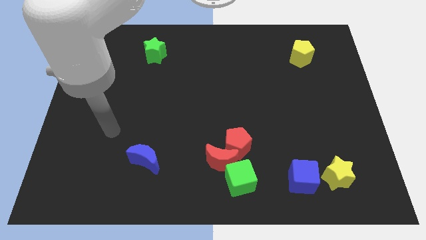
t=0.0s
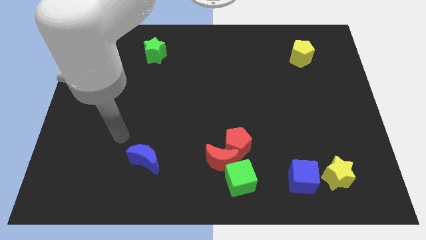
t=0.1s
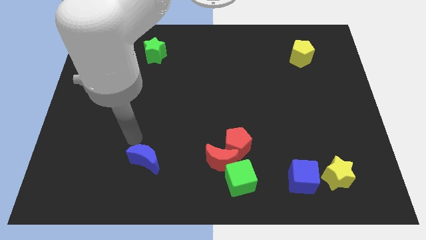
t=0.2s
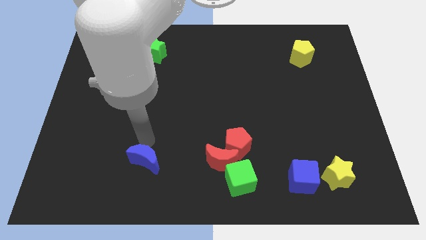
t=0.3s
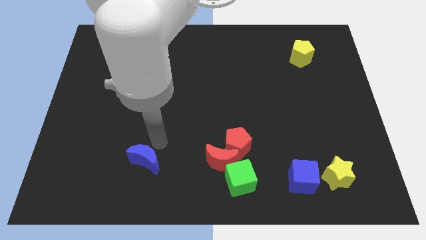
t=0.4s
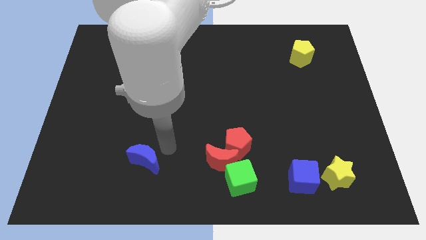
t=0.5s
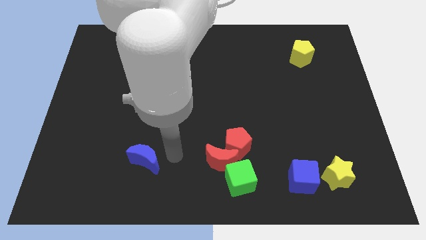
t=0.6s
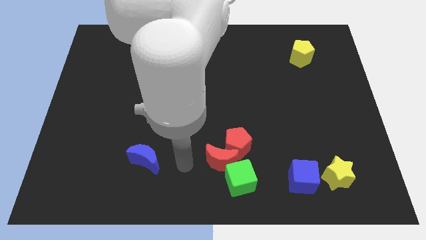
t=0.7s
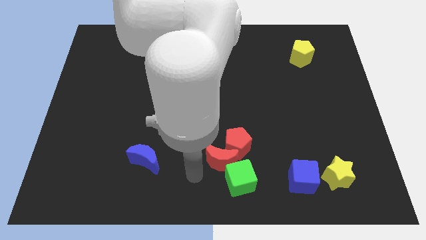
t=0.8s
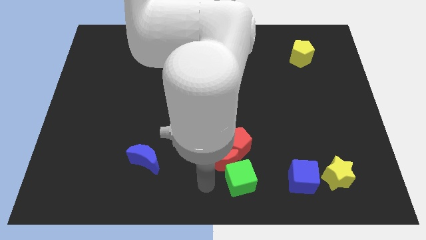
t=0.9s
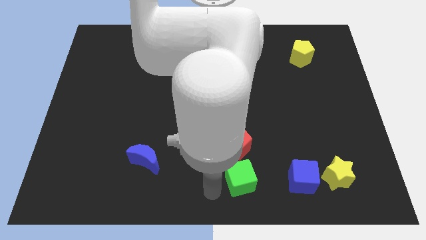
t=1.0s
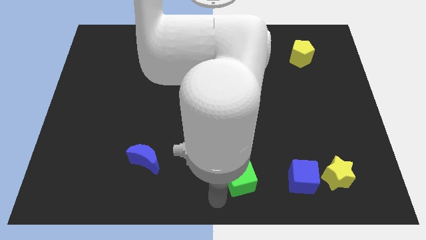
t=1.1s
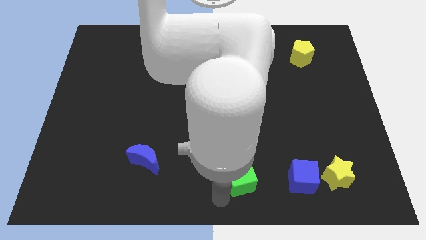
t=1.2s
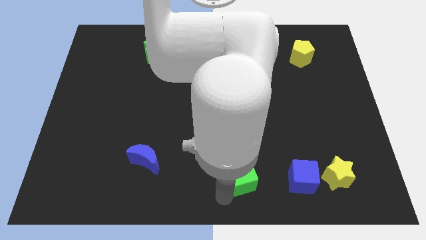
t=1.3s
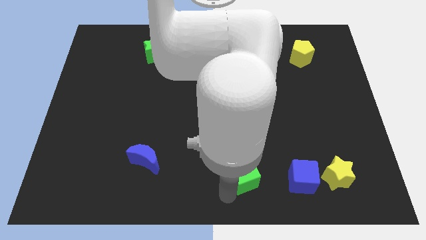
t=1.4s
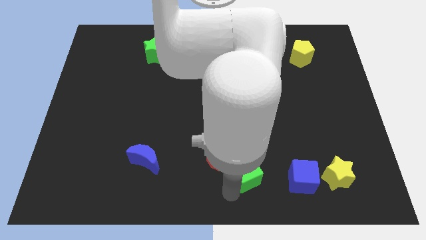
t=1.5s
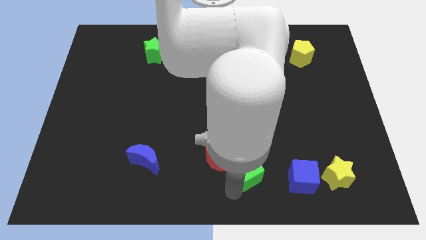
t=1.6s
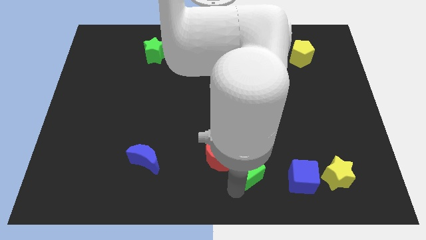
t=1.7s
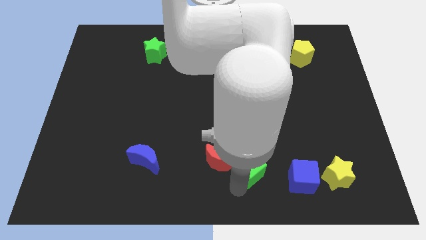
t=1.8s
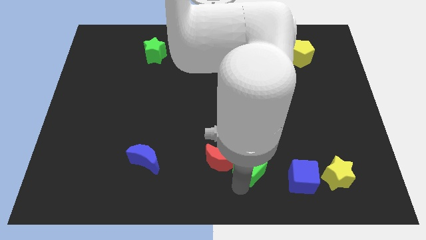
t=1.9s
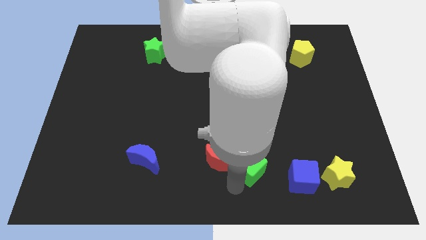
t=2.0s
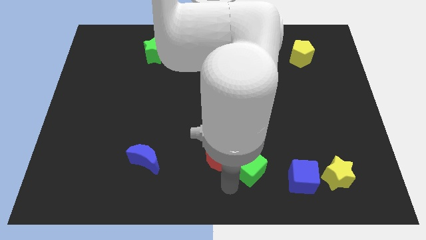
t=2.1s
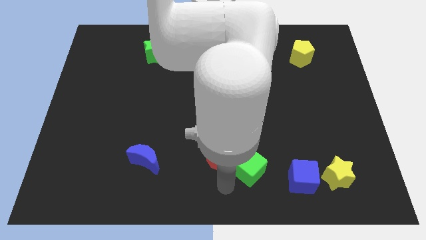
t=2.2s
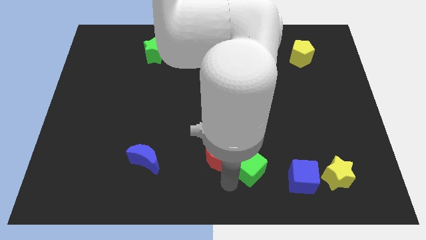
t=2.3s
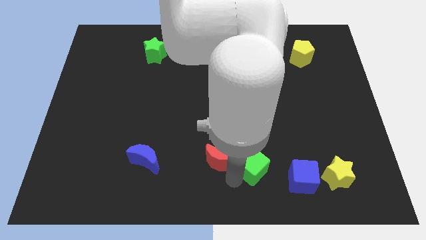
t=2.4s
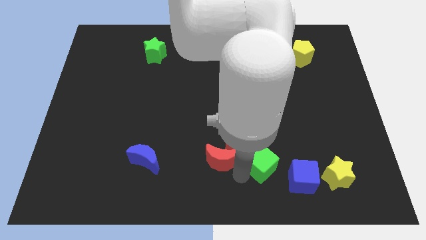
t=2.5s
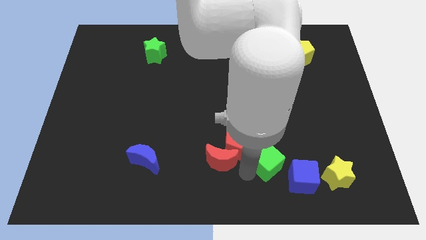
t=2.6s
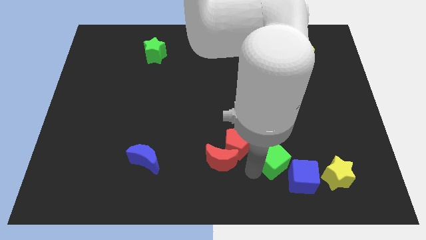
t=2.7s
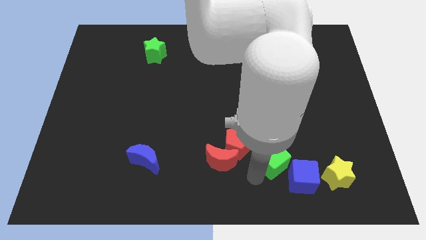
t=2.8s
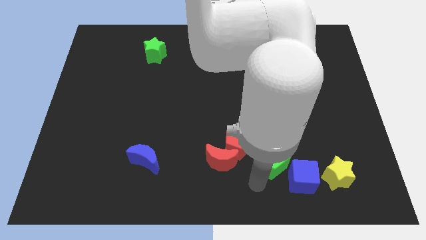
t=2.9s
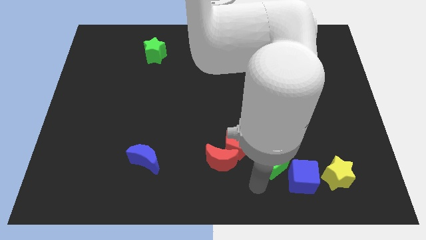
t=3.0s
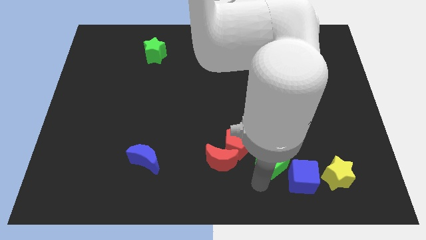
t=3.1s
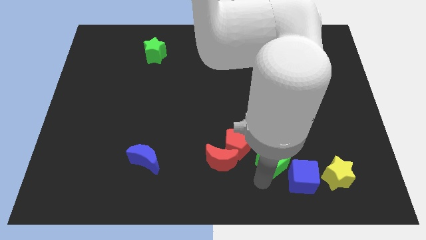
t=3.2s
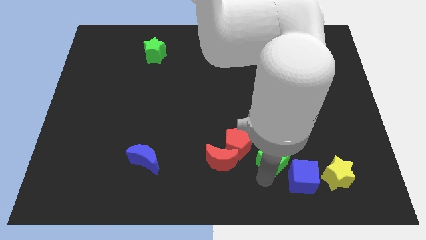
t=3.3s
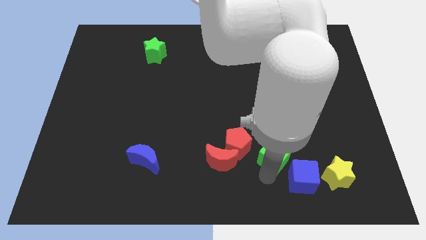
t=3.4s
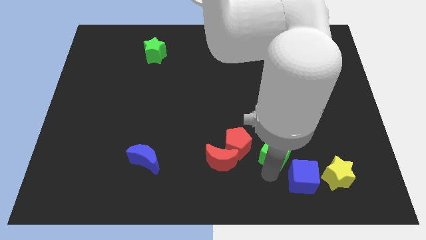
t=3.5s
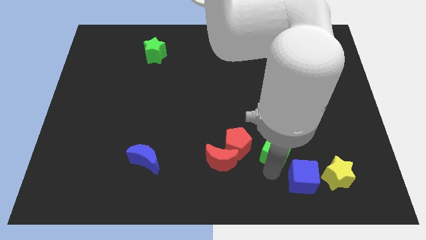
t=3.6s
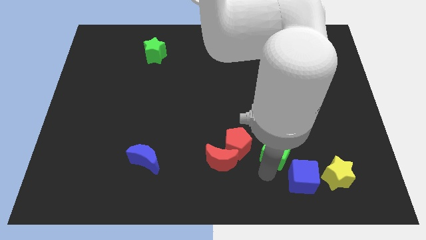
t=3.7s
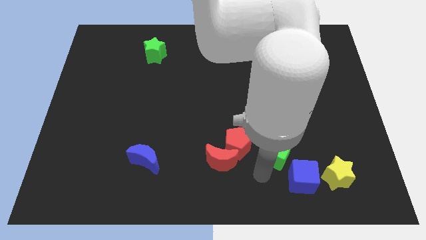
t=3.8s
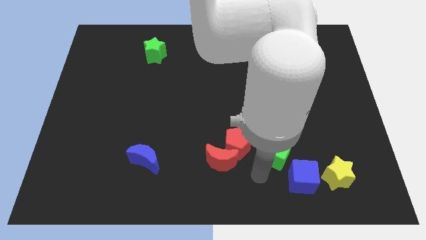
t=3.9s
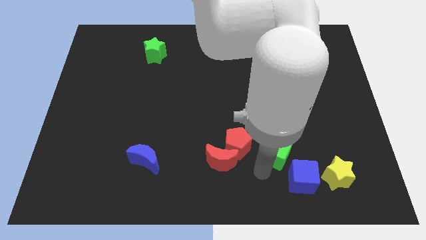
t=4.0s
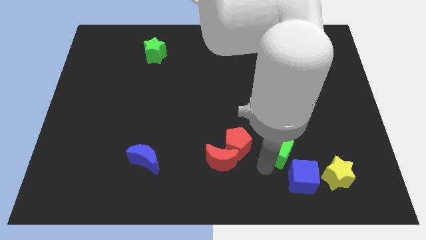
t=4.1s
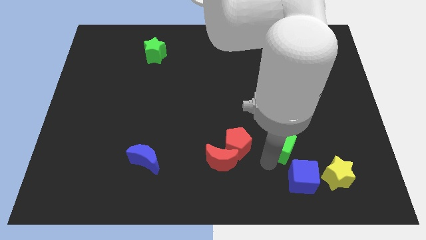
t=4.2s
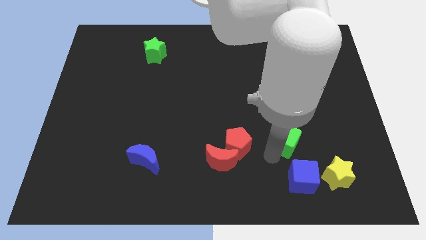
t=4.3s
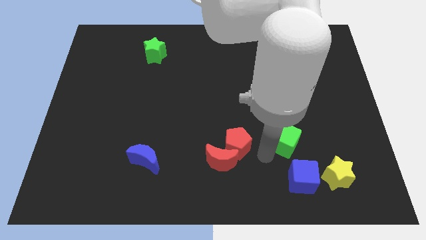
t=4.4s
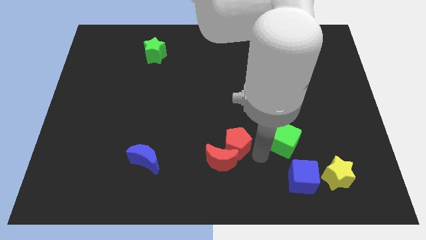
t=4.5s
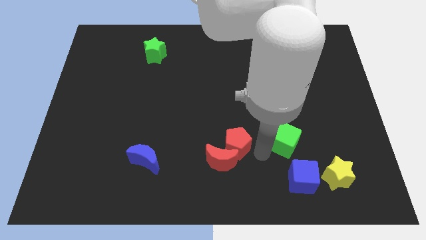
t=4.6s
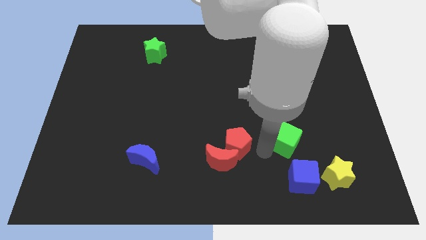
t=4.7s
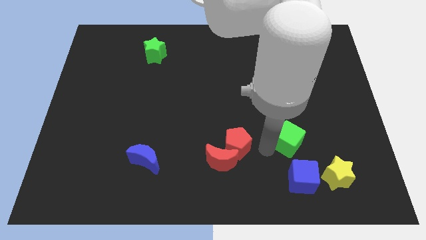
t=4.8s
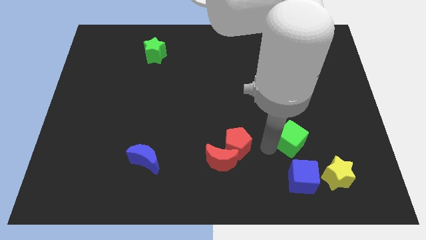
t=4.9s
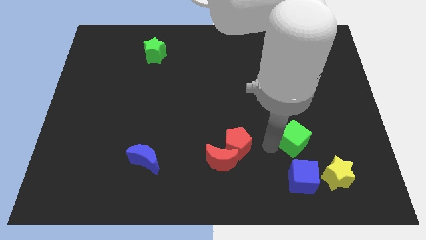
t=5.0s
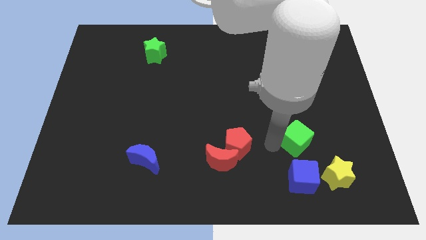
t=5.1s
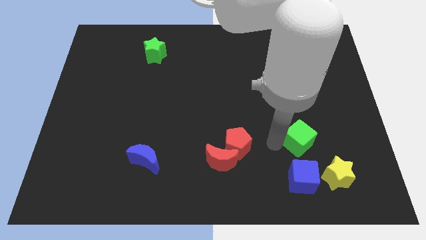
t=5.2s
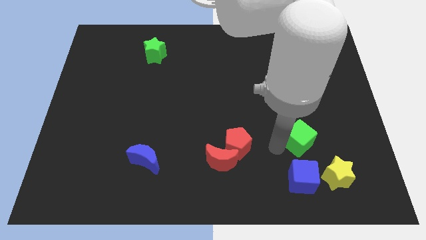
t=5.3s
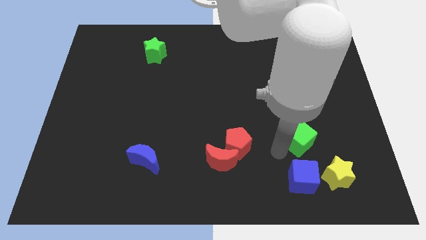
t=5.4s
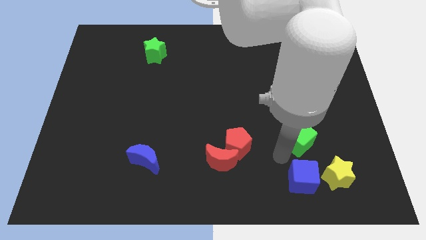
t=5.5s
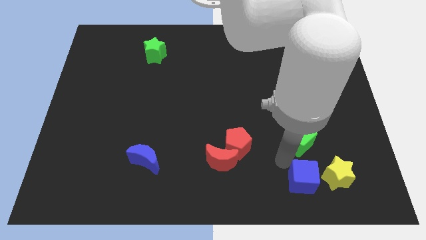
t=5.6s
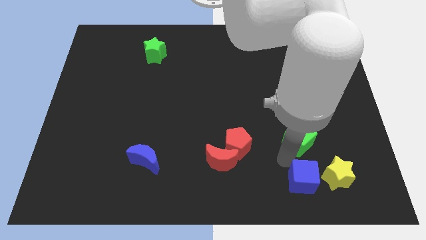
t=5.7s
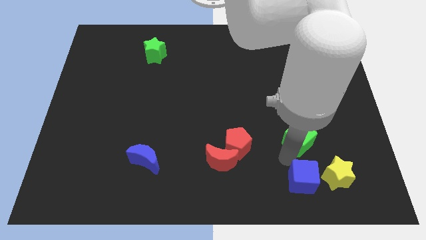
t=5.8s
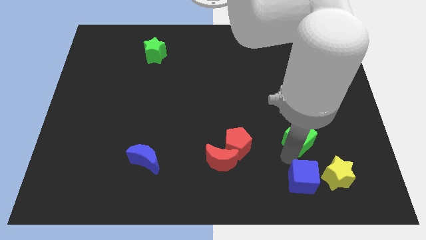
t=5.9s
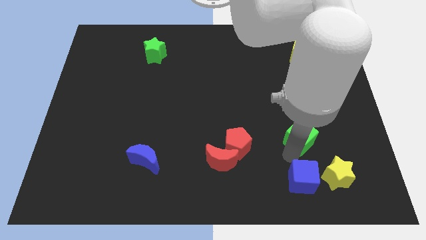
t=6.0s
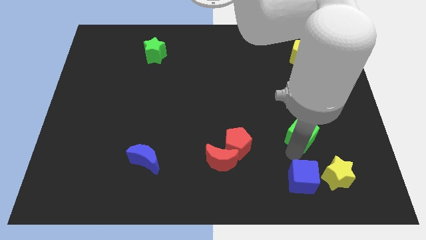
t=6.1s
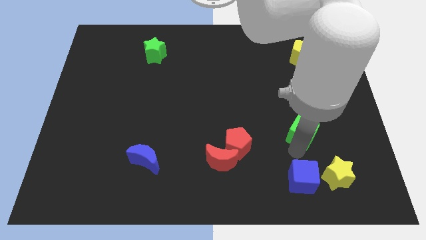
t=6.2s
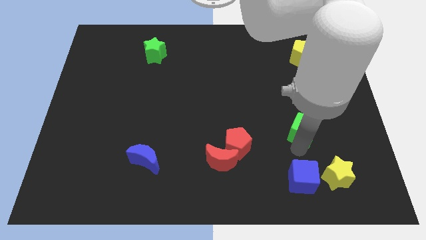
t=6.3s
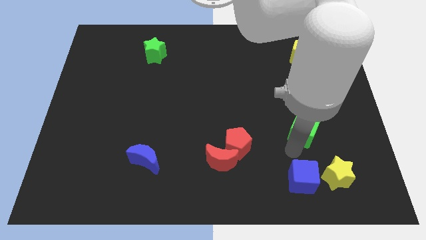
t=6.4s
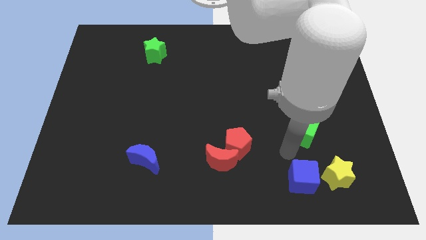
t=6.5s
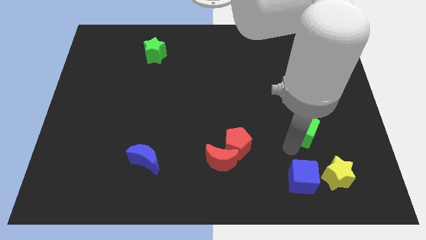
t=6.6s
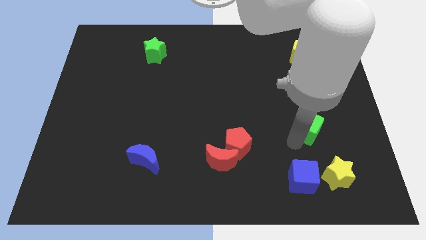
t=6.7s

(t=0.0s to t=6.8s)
move the green cube upwards and right

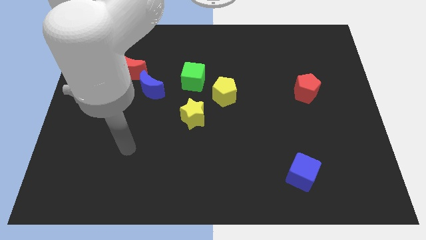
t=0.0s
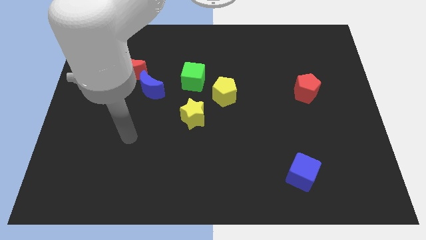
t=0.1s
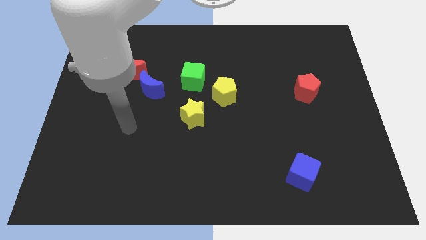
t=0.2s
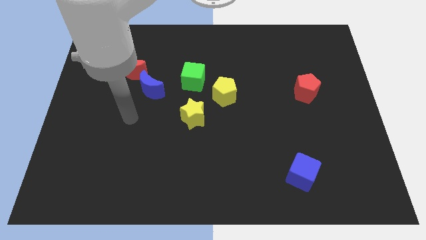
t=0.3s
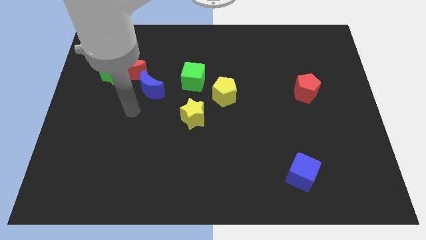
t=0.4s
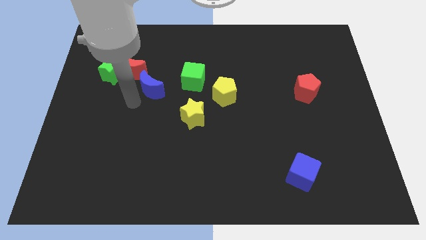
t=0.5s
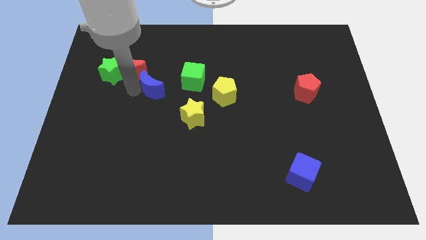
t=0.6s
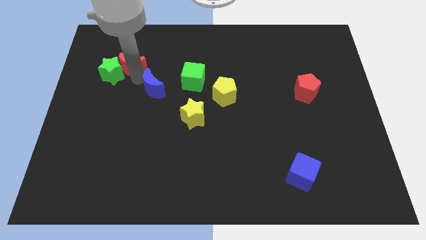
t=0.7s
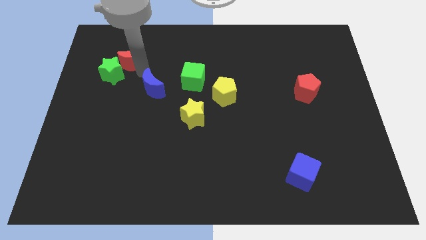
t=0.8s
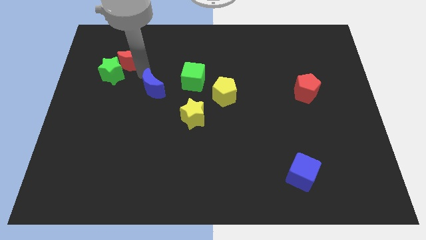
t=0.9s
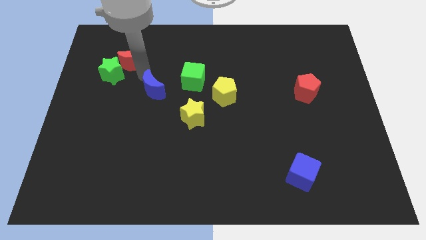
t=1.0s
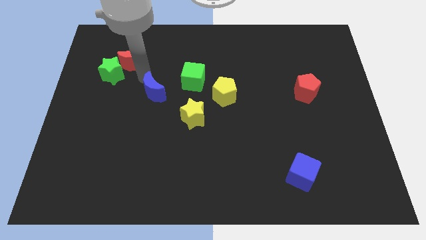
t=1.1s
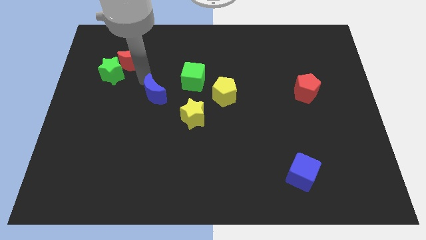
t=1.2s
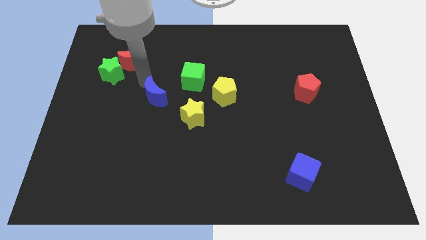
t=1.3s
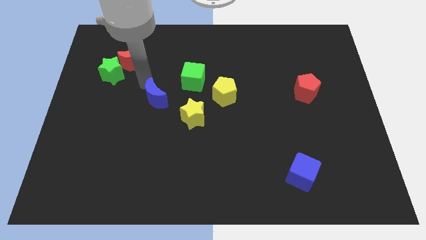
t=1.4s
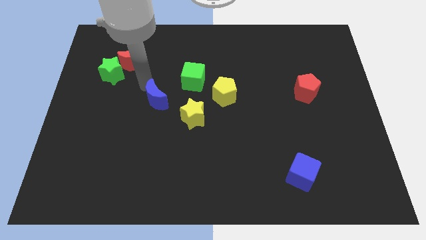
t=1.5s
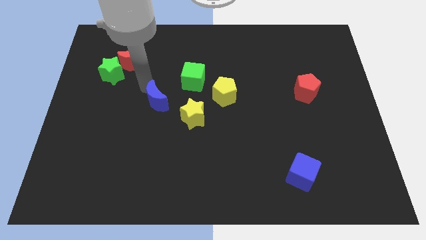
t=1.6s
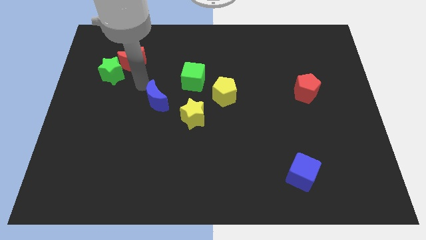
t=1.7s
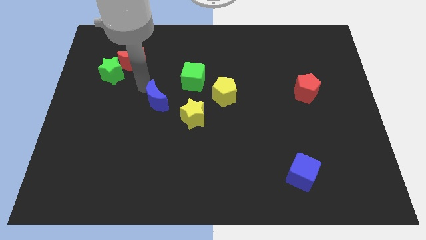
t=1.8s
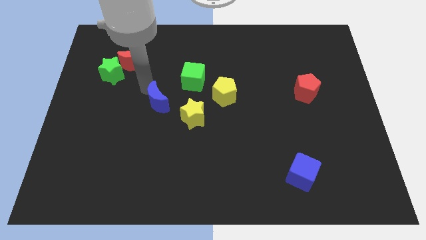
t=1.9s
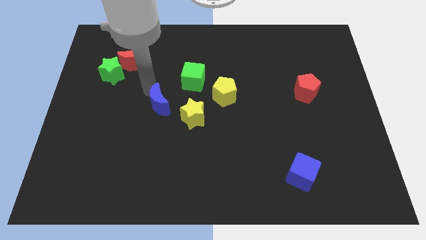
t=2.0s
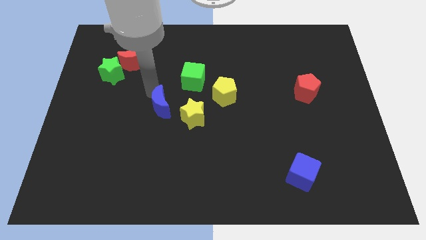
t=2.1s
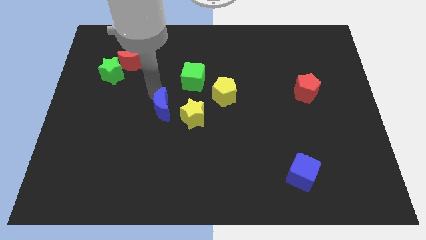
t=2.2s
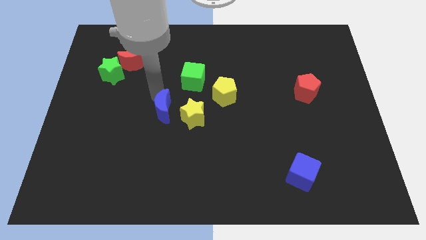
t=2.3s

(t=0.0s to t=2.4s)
push the blue moon diagonally downwards and to the right a little bit
